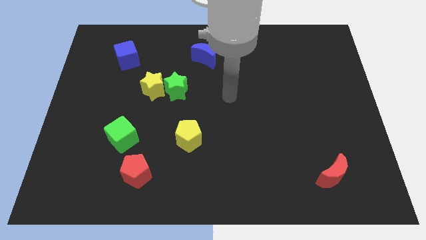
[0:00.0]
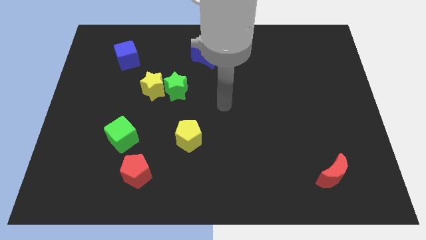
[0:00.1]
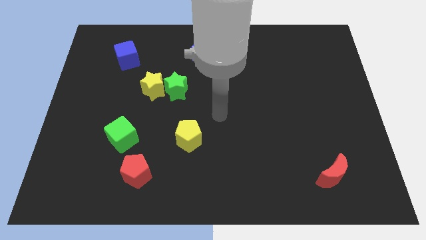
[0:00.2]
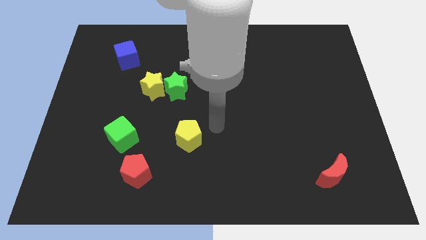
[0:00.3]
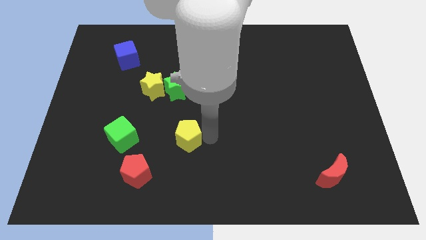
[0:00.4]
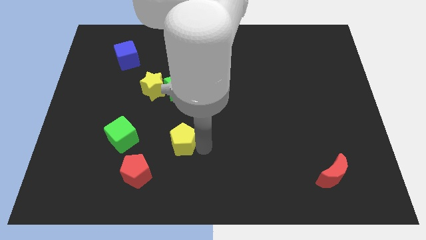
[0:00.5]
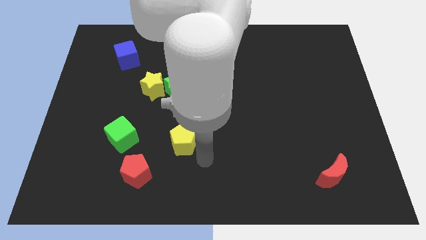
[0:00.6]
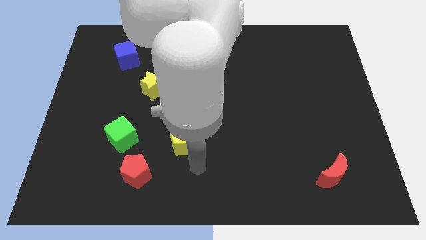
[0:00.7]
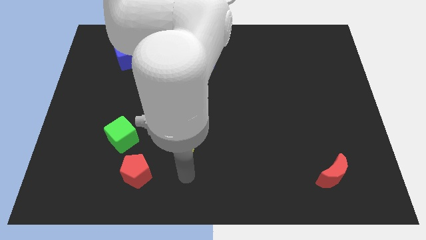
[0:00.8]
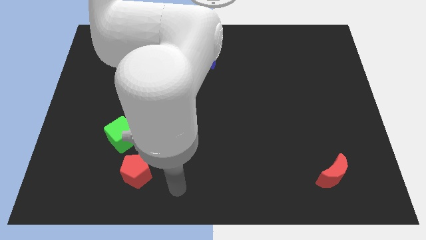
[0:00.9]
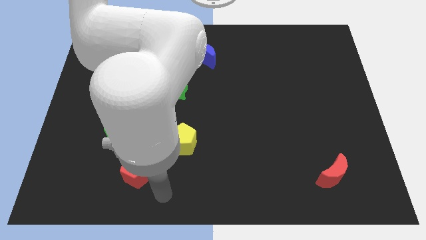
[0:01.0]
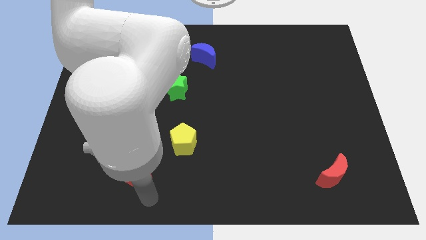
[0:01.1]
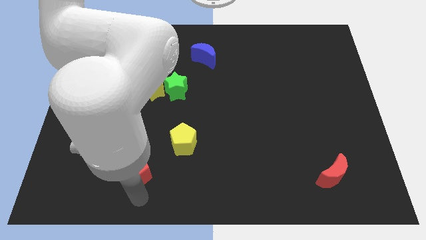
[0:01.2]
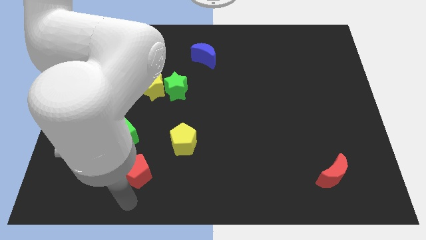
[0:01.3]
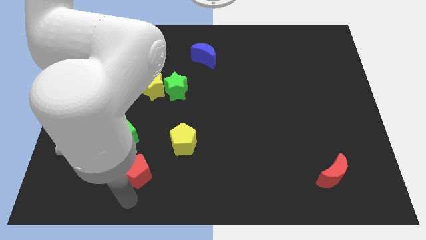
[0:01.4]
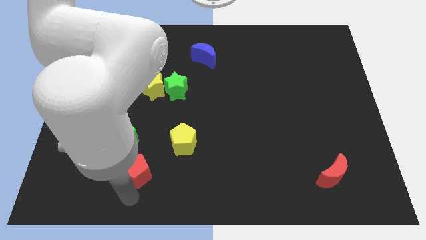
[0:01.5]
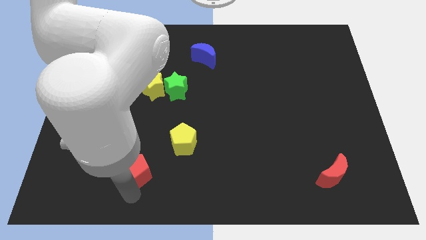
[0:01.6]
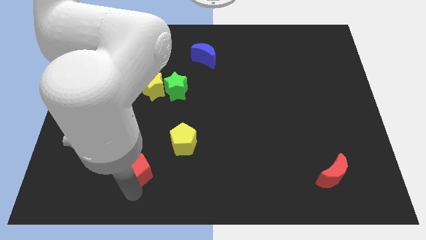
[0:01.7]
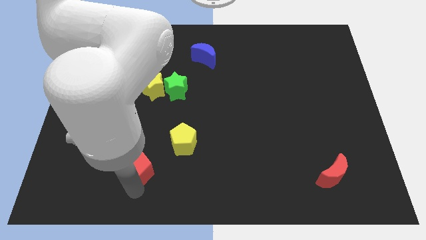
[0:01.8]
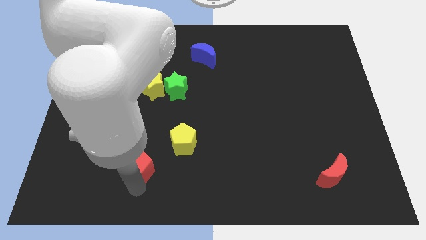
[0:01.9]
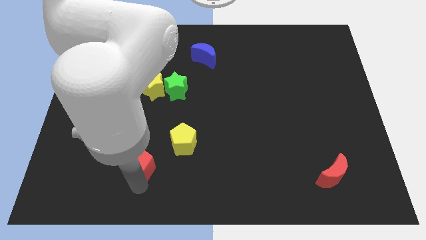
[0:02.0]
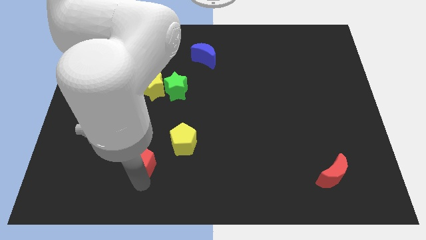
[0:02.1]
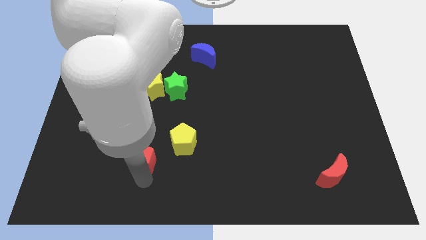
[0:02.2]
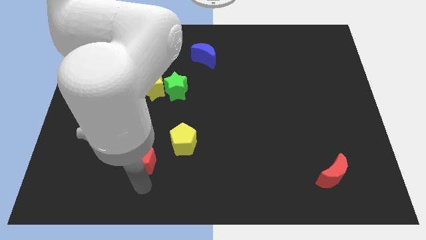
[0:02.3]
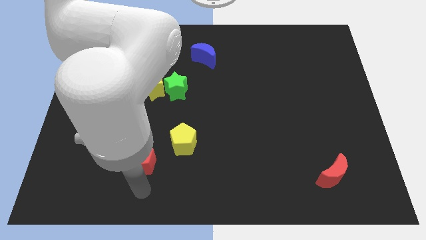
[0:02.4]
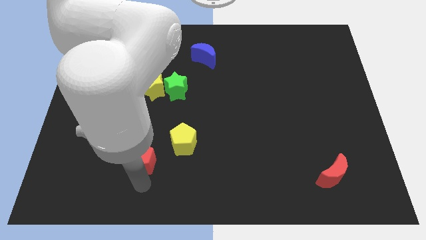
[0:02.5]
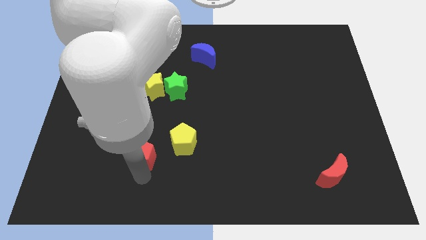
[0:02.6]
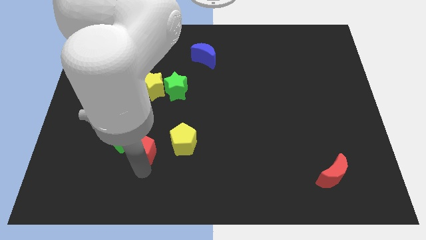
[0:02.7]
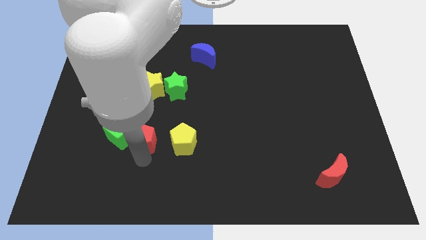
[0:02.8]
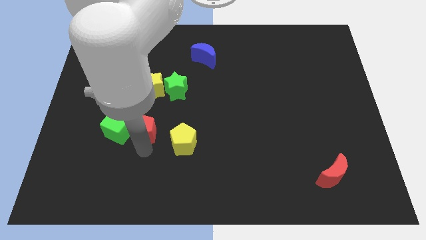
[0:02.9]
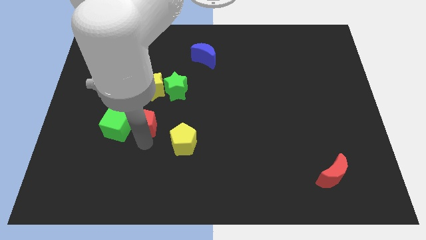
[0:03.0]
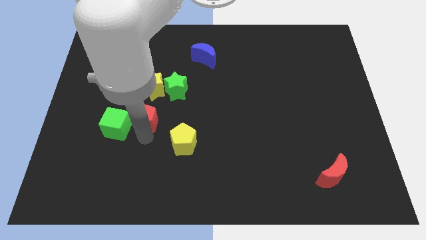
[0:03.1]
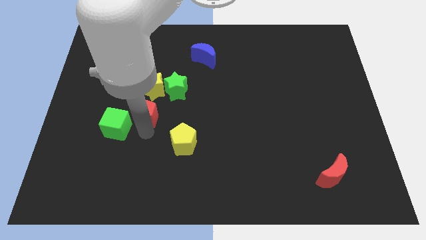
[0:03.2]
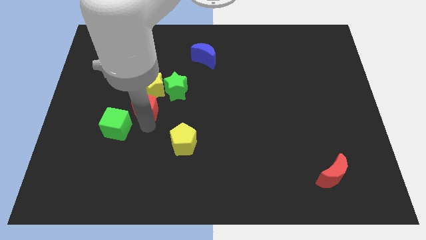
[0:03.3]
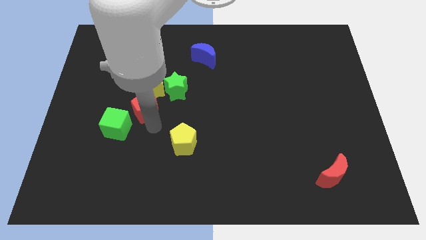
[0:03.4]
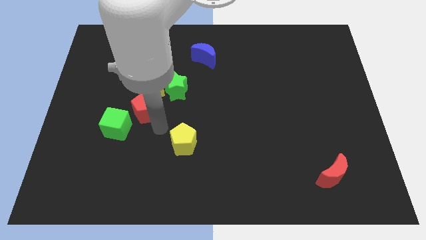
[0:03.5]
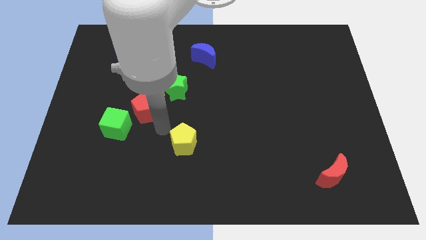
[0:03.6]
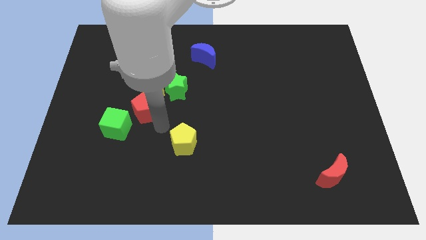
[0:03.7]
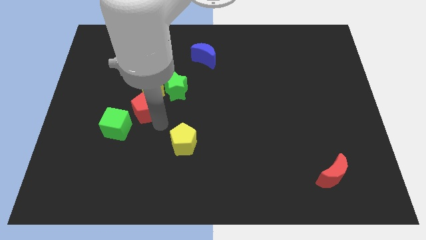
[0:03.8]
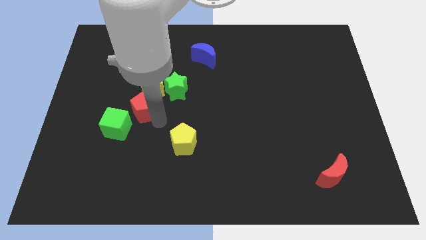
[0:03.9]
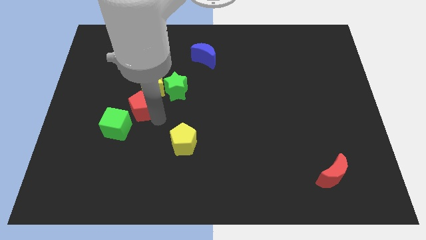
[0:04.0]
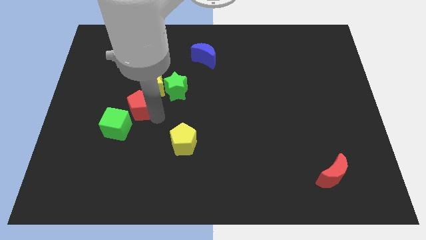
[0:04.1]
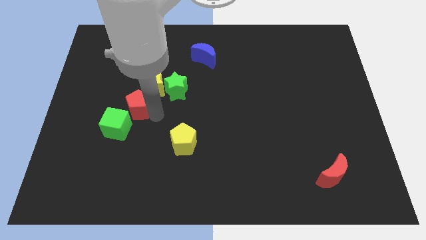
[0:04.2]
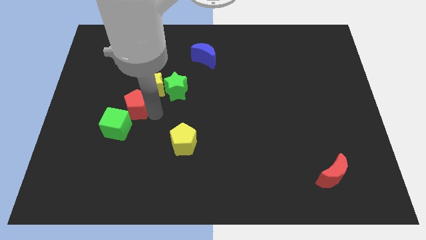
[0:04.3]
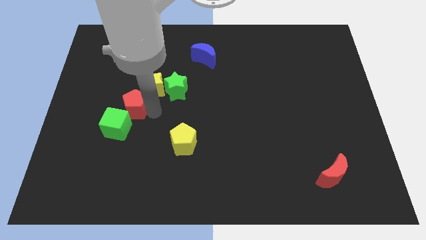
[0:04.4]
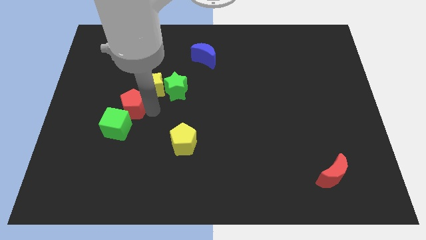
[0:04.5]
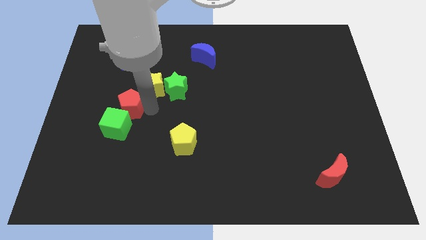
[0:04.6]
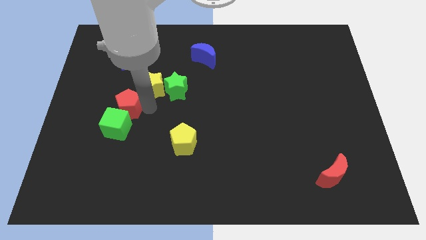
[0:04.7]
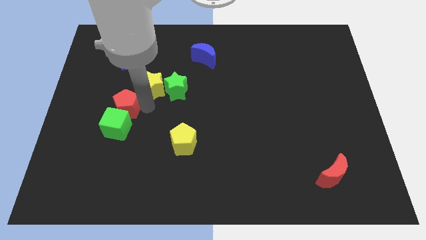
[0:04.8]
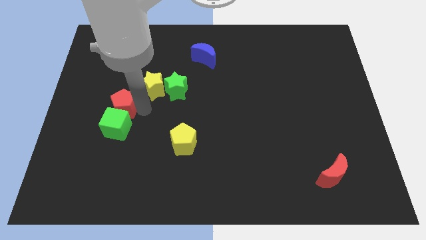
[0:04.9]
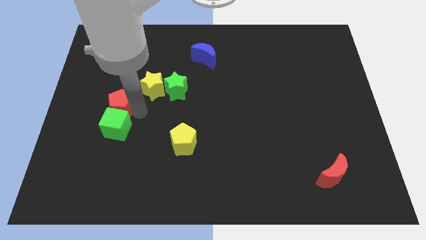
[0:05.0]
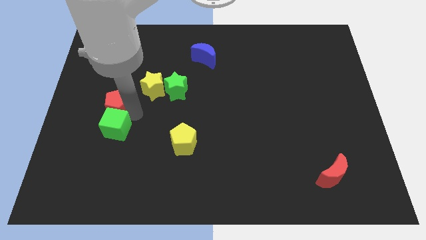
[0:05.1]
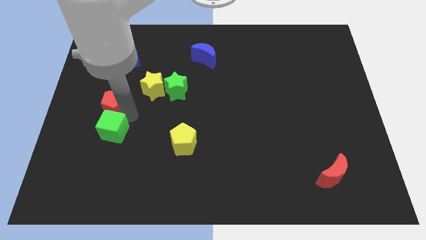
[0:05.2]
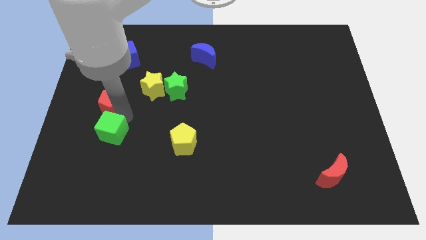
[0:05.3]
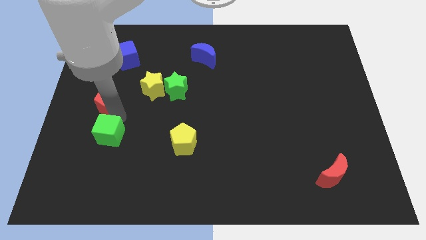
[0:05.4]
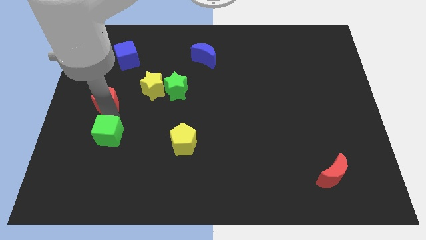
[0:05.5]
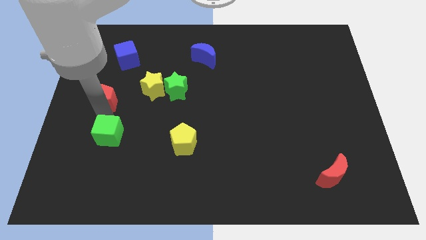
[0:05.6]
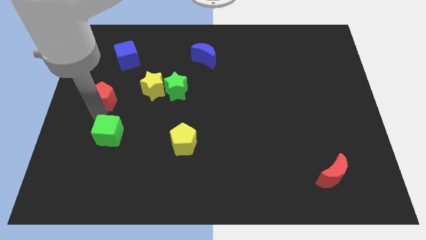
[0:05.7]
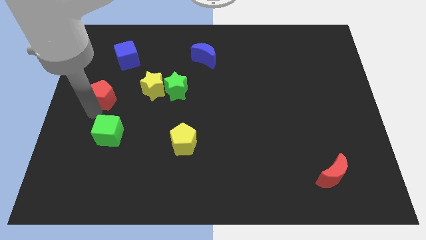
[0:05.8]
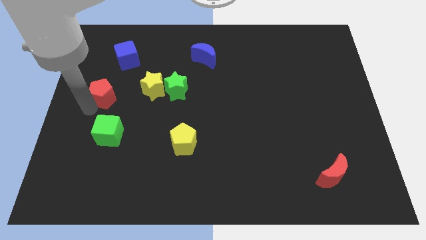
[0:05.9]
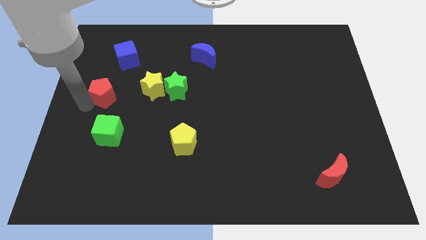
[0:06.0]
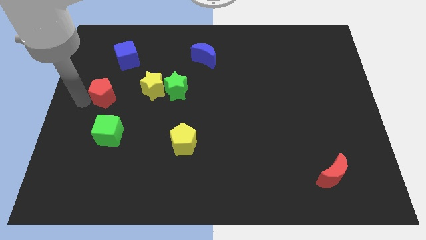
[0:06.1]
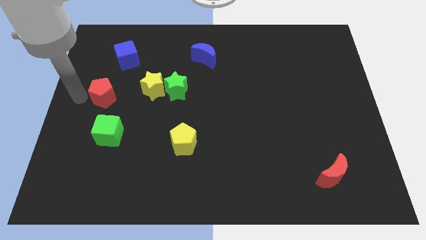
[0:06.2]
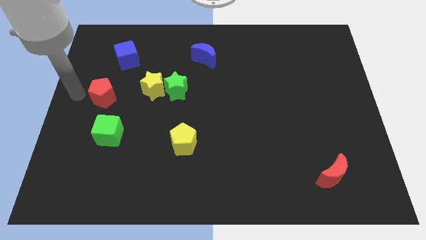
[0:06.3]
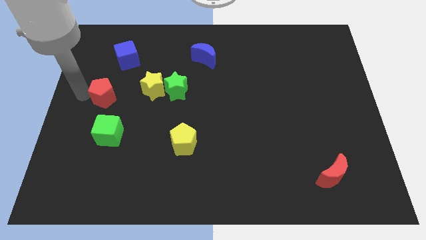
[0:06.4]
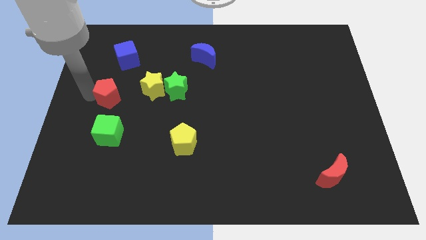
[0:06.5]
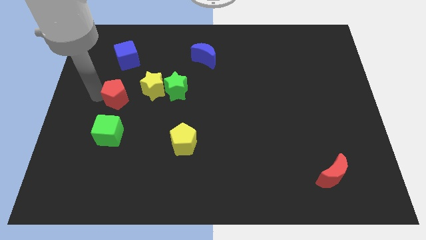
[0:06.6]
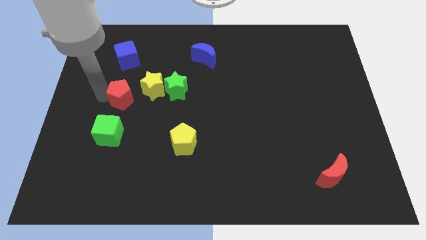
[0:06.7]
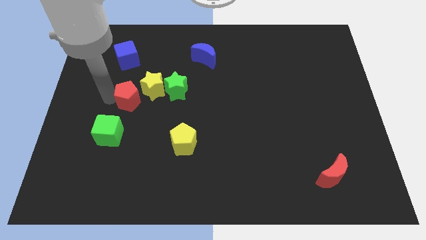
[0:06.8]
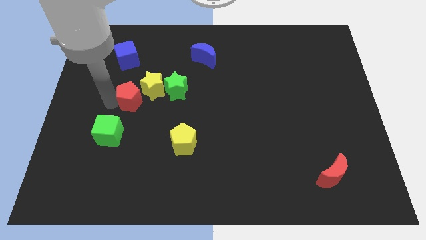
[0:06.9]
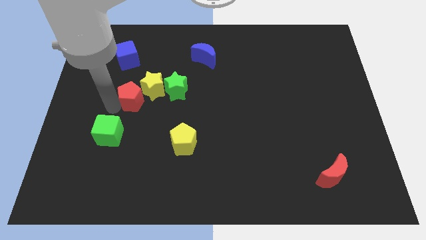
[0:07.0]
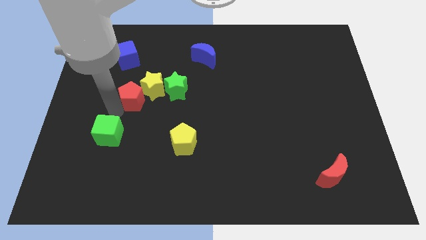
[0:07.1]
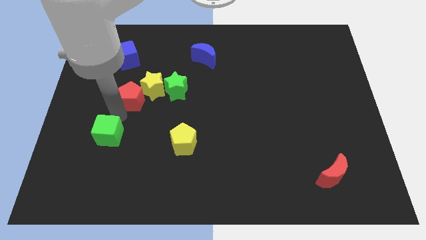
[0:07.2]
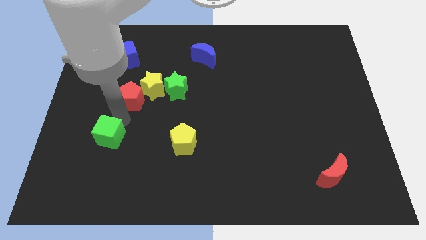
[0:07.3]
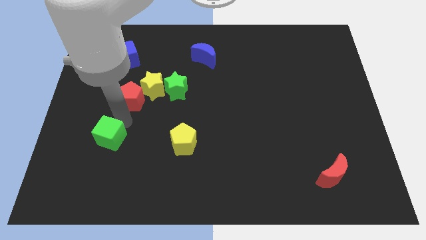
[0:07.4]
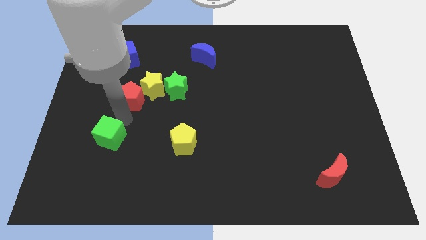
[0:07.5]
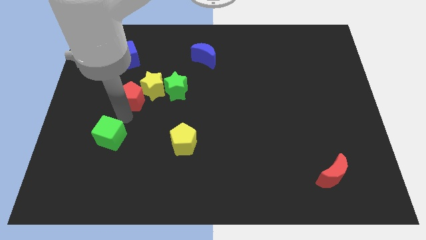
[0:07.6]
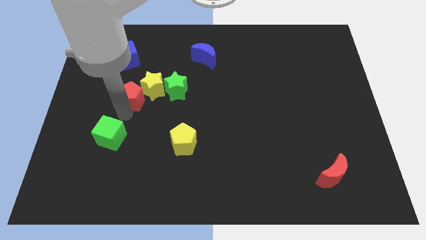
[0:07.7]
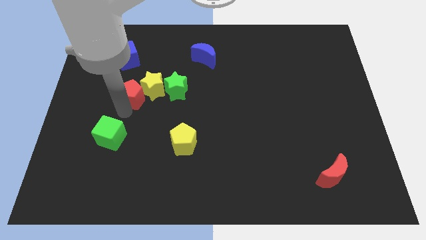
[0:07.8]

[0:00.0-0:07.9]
slide the red pentagon upwards

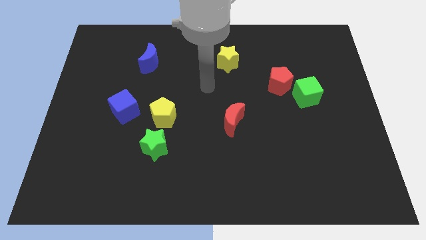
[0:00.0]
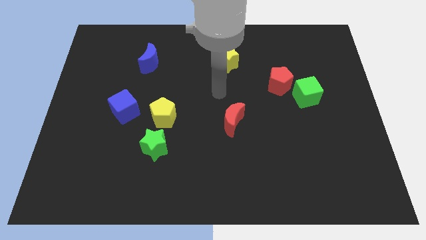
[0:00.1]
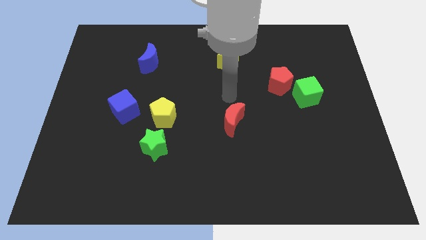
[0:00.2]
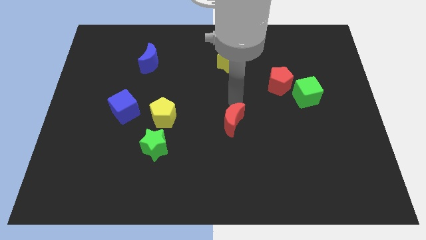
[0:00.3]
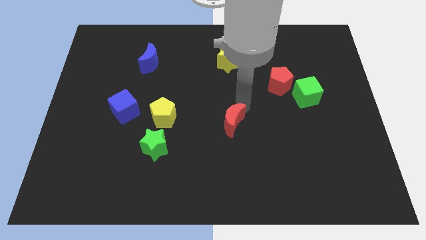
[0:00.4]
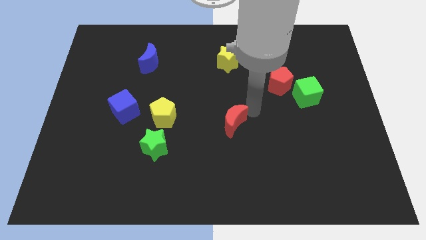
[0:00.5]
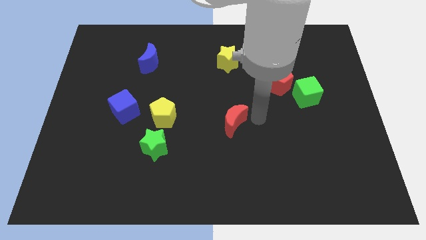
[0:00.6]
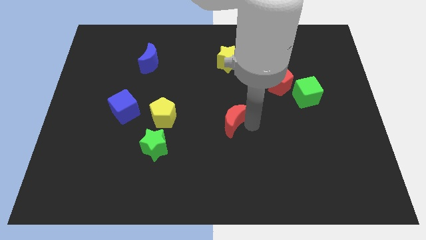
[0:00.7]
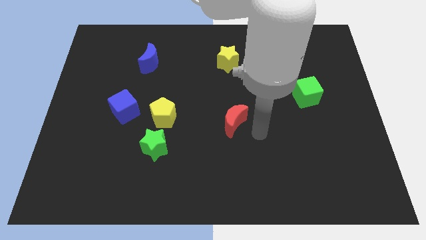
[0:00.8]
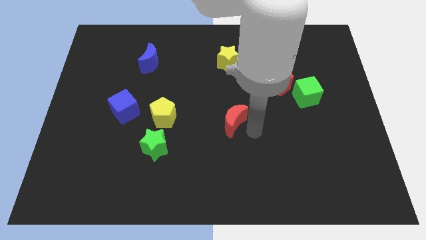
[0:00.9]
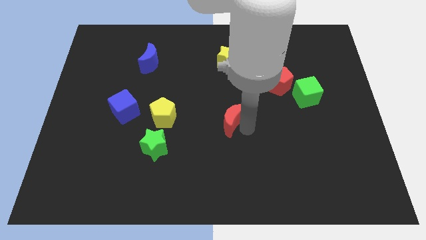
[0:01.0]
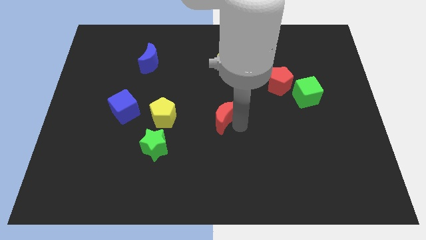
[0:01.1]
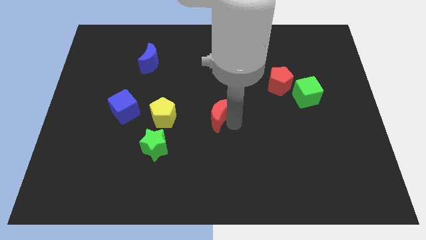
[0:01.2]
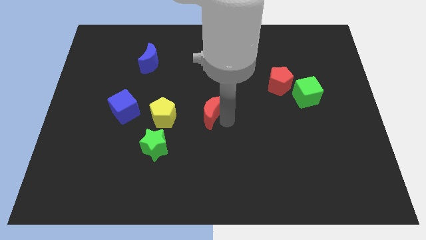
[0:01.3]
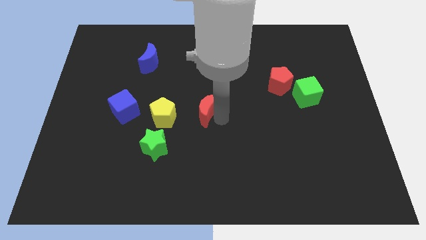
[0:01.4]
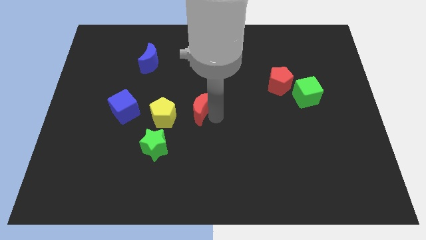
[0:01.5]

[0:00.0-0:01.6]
slightly slide the red moon to the left
